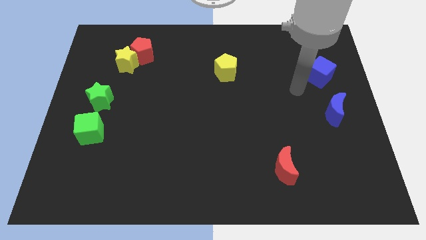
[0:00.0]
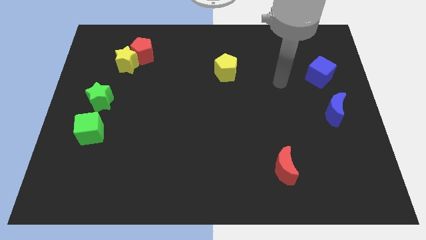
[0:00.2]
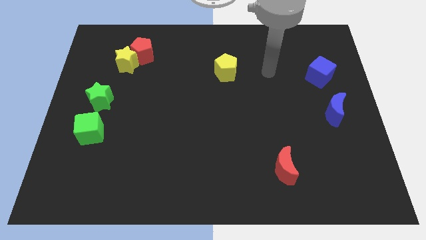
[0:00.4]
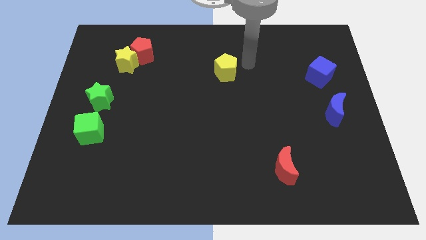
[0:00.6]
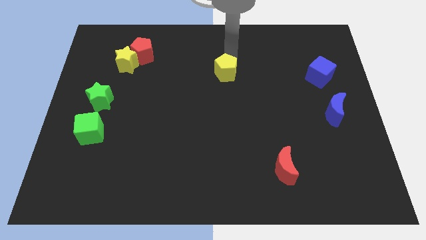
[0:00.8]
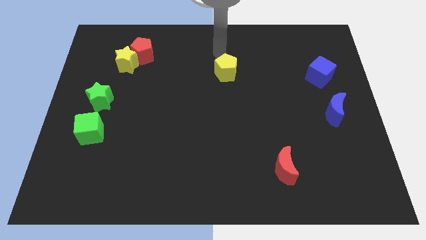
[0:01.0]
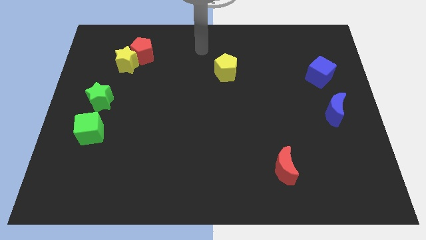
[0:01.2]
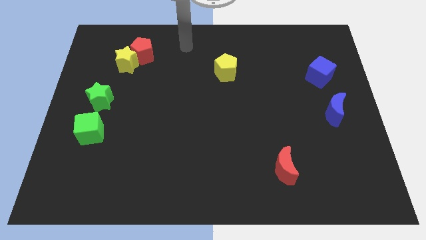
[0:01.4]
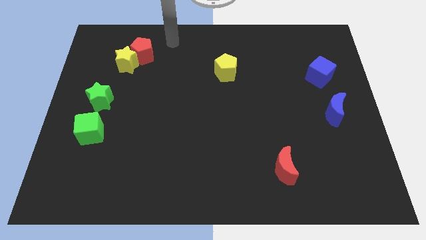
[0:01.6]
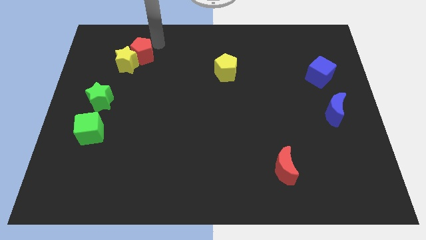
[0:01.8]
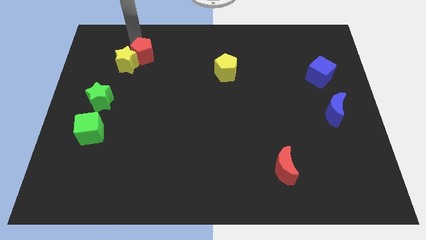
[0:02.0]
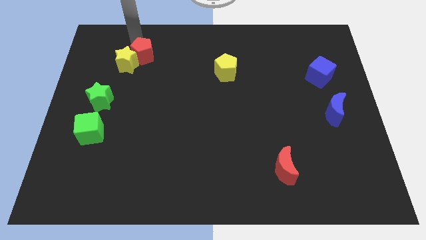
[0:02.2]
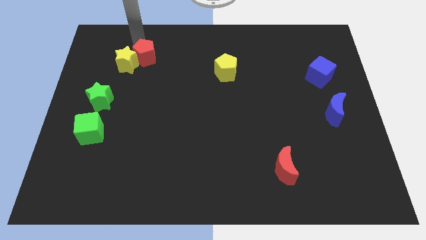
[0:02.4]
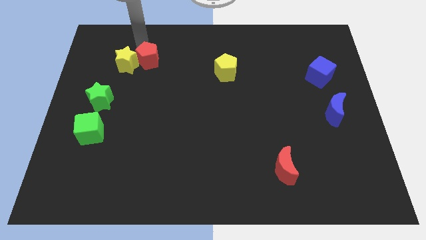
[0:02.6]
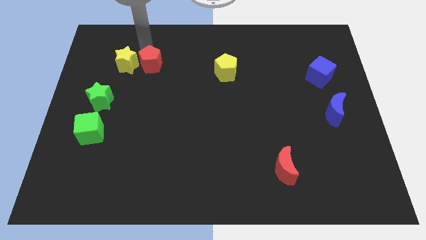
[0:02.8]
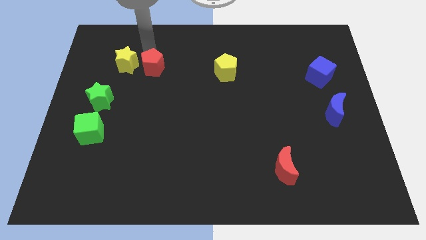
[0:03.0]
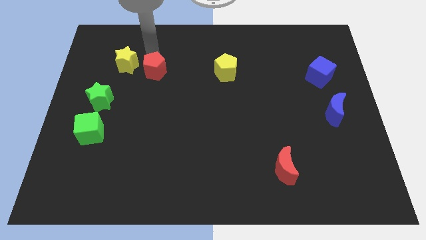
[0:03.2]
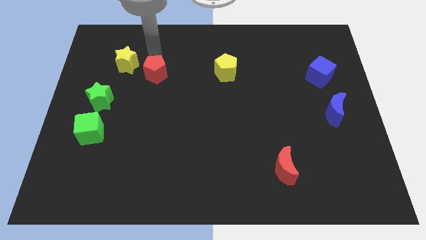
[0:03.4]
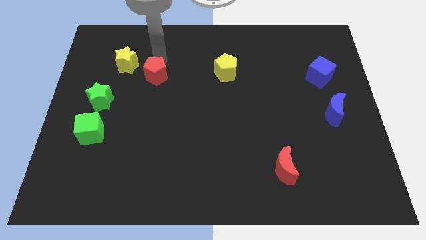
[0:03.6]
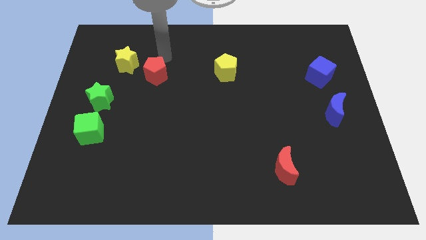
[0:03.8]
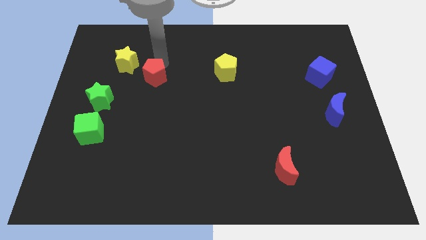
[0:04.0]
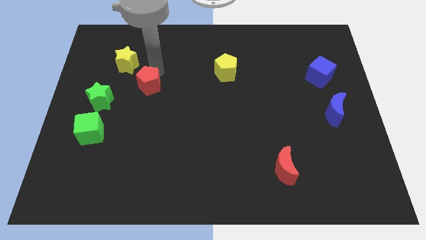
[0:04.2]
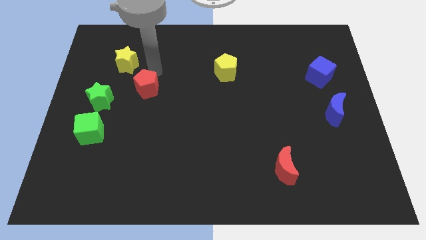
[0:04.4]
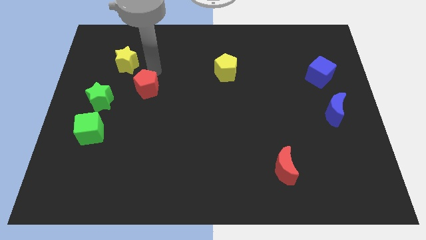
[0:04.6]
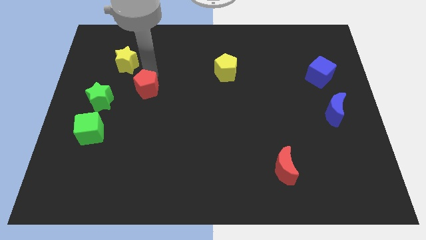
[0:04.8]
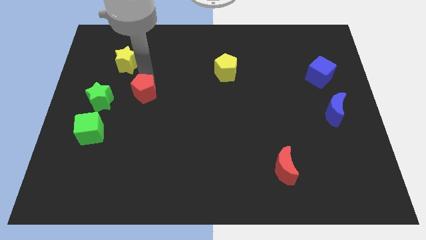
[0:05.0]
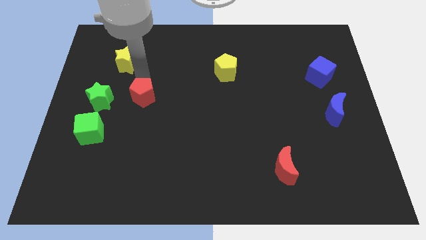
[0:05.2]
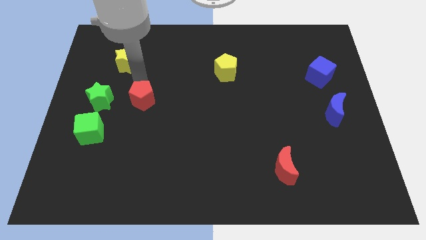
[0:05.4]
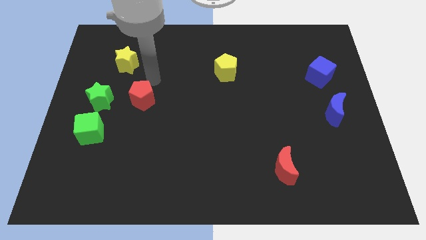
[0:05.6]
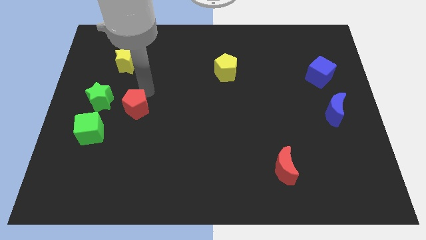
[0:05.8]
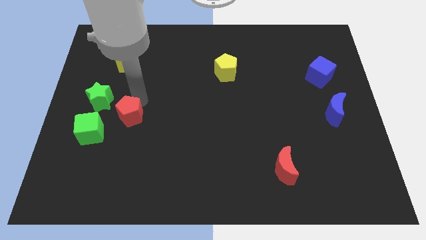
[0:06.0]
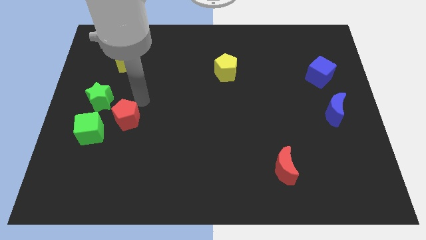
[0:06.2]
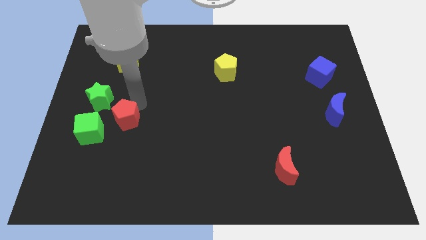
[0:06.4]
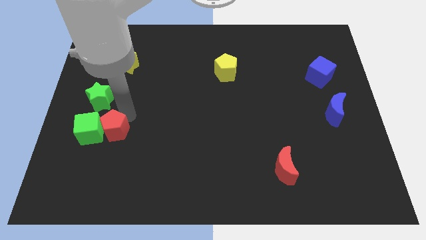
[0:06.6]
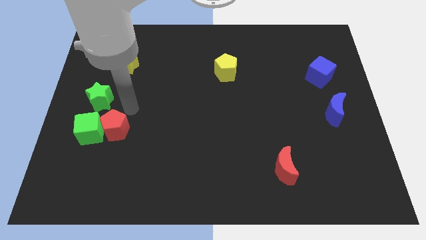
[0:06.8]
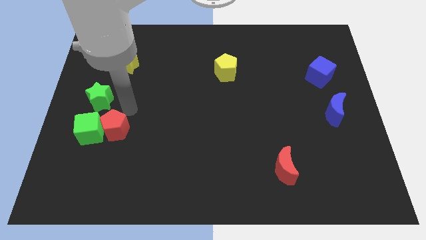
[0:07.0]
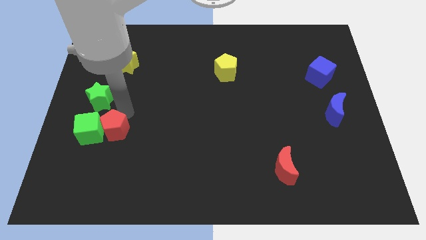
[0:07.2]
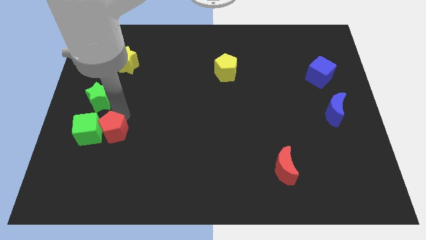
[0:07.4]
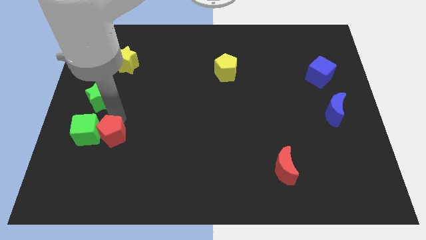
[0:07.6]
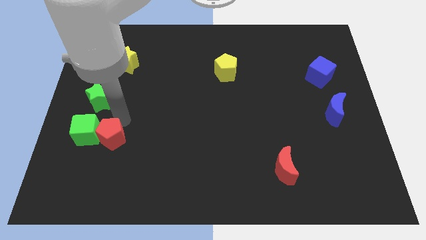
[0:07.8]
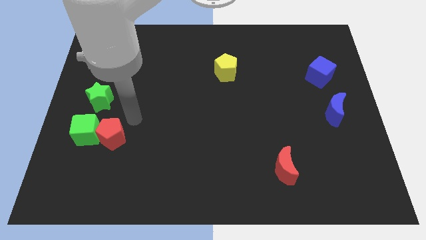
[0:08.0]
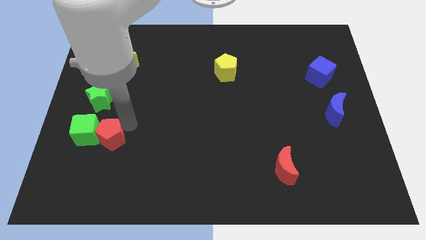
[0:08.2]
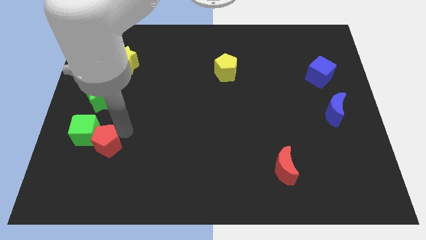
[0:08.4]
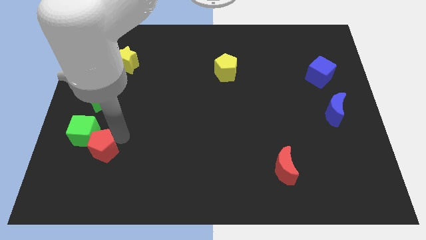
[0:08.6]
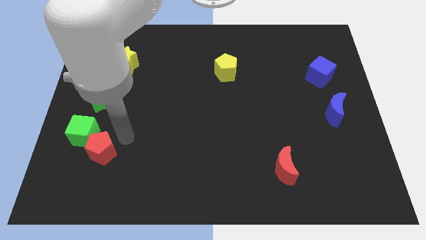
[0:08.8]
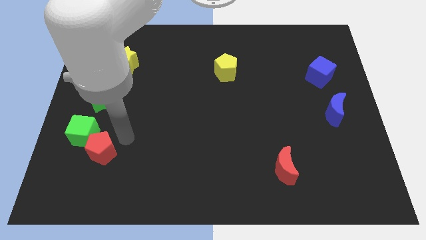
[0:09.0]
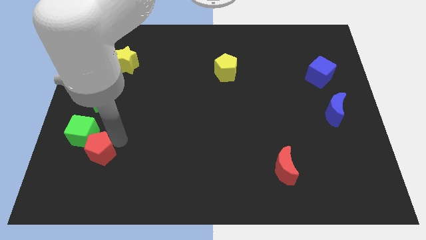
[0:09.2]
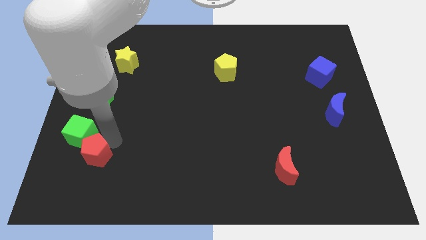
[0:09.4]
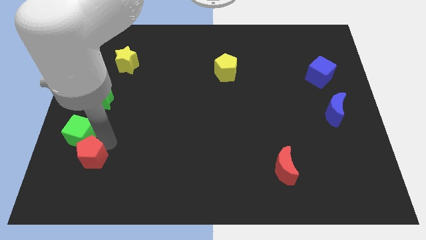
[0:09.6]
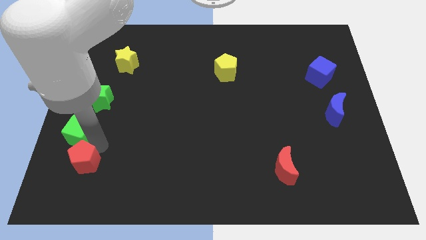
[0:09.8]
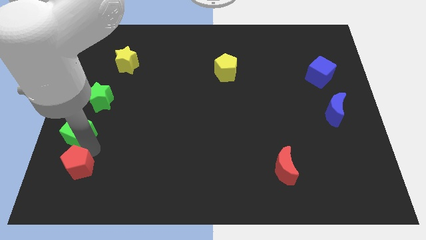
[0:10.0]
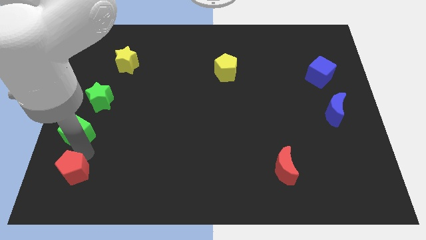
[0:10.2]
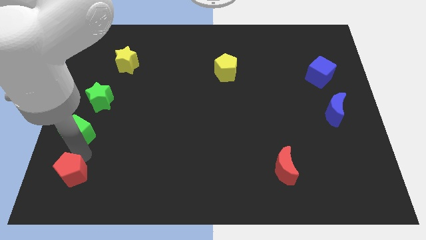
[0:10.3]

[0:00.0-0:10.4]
put the red pentagon to the bottom left of the board

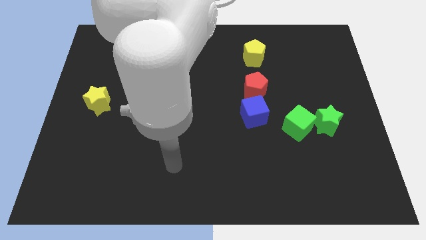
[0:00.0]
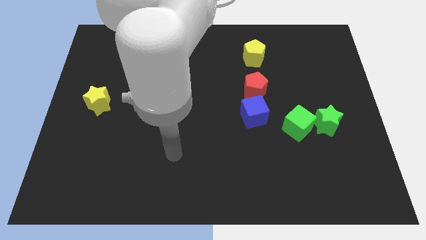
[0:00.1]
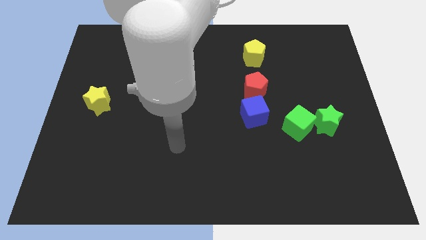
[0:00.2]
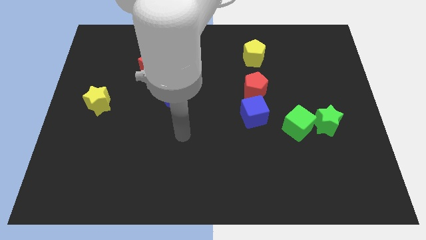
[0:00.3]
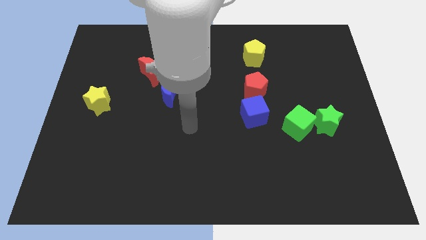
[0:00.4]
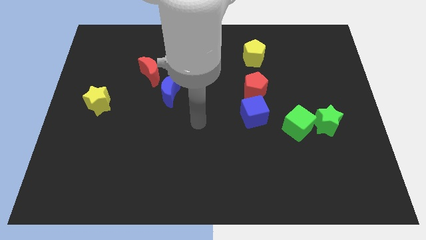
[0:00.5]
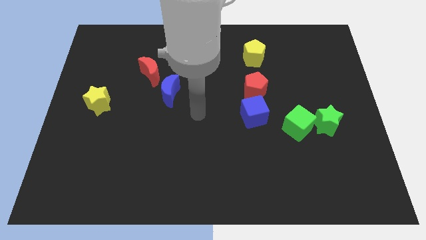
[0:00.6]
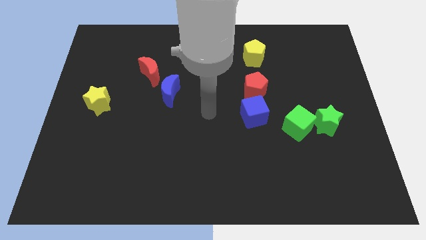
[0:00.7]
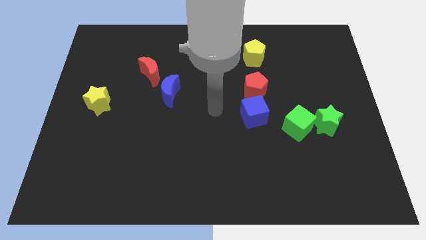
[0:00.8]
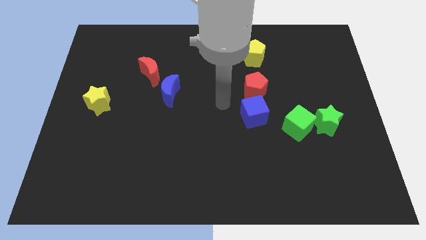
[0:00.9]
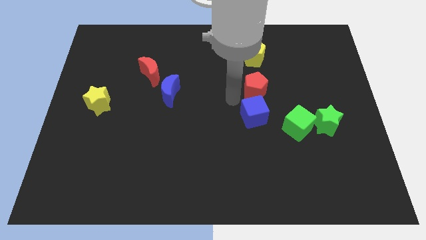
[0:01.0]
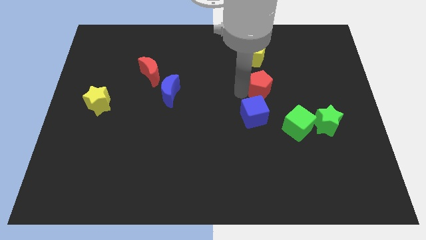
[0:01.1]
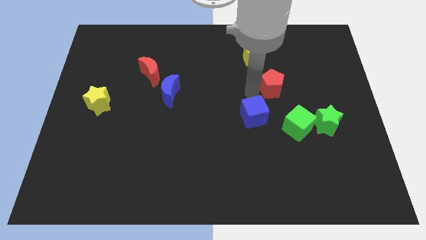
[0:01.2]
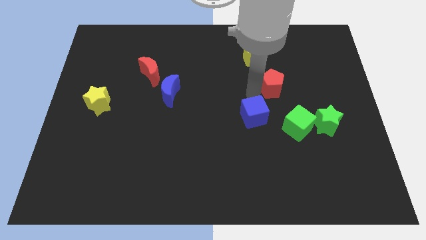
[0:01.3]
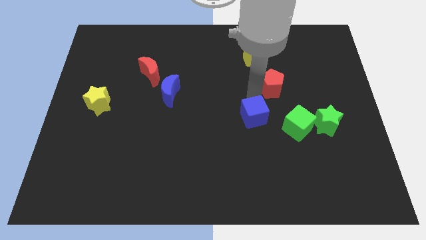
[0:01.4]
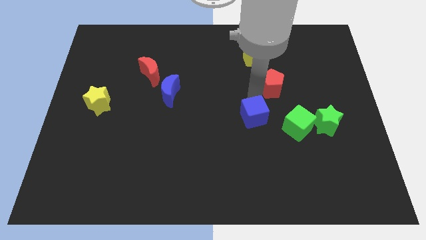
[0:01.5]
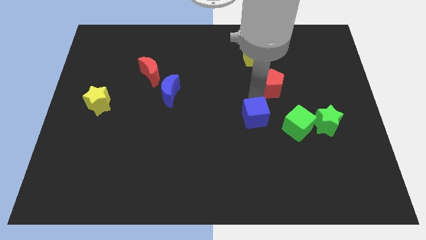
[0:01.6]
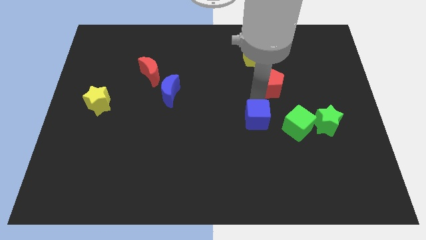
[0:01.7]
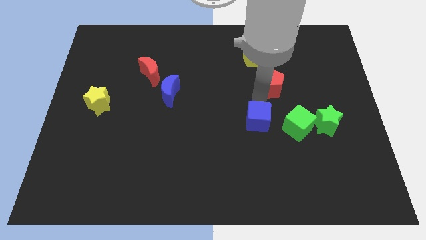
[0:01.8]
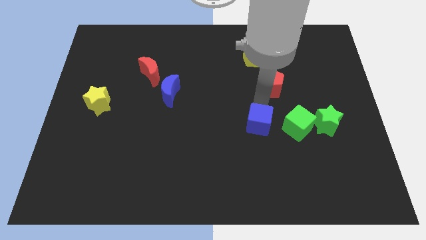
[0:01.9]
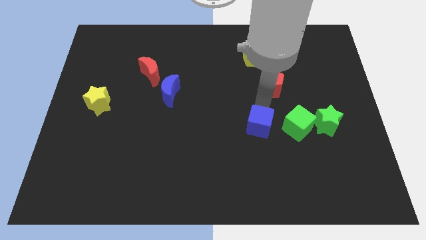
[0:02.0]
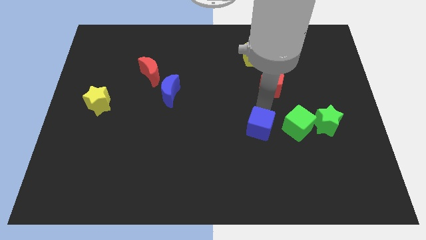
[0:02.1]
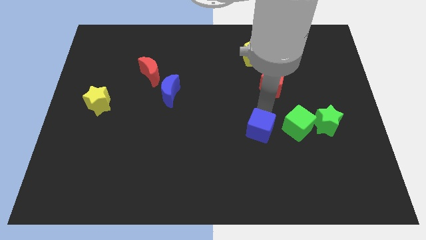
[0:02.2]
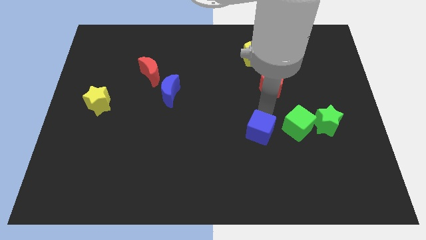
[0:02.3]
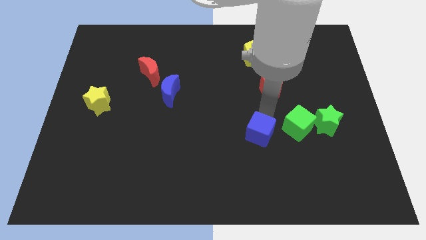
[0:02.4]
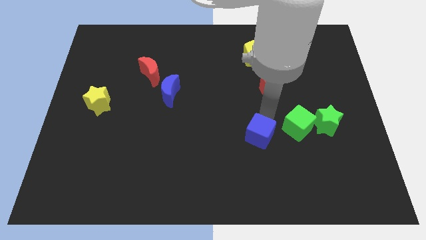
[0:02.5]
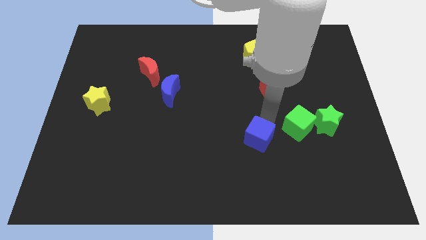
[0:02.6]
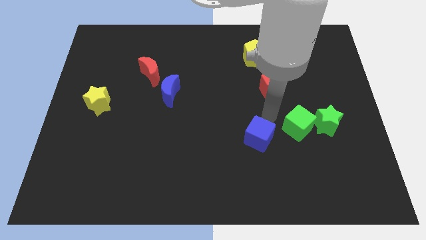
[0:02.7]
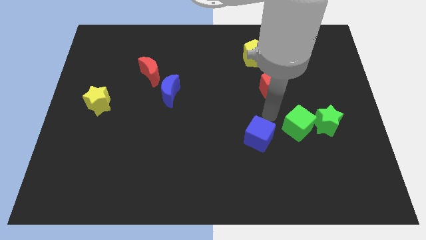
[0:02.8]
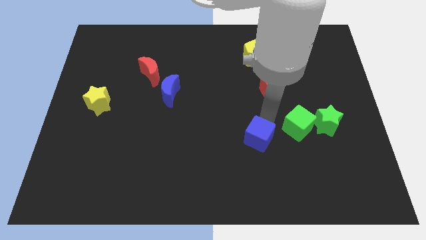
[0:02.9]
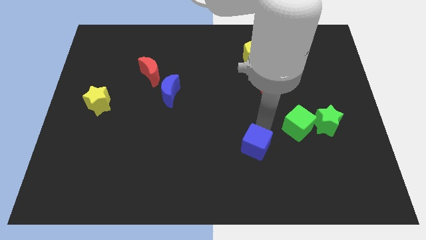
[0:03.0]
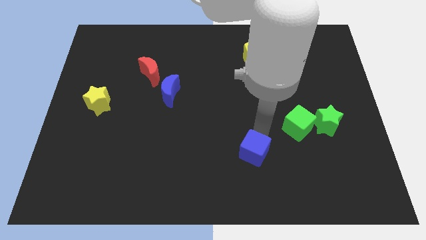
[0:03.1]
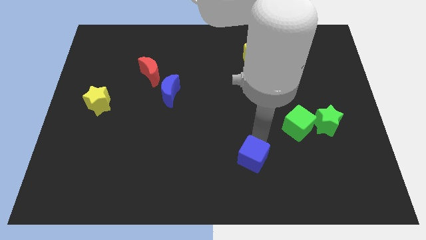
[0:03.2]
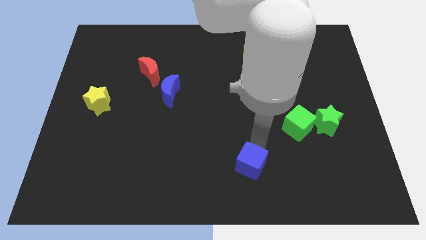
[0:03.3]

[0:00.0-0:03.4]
push the blue cube to the bottom side
